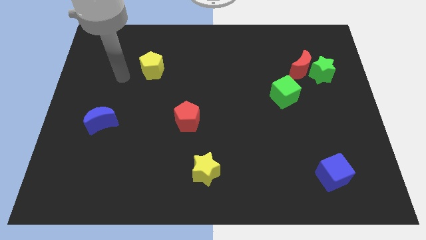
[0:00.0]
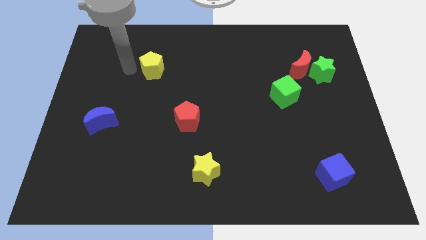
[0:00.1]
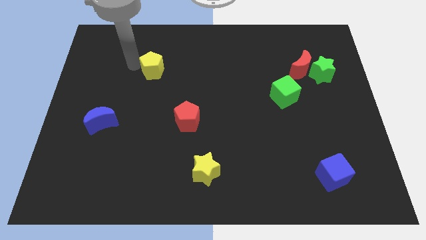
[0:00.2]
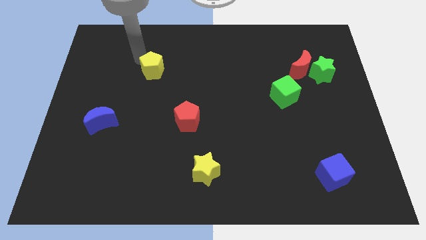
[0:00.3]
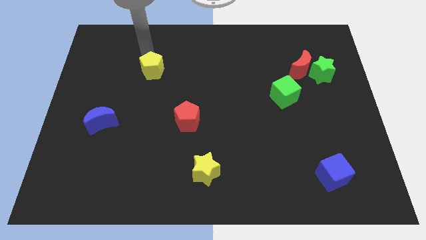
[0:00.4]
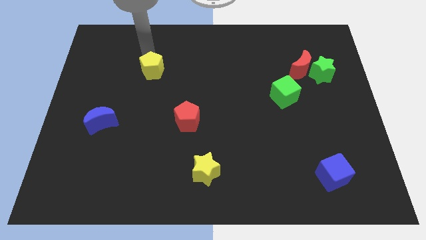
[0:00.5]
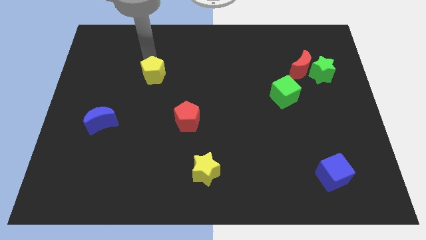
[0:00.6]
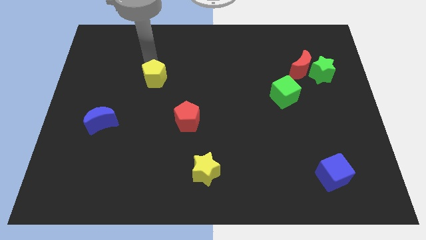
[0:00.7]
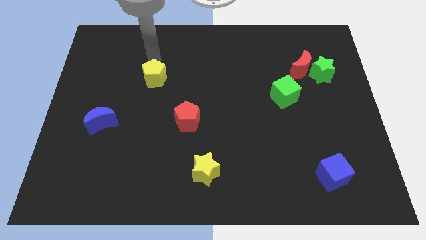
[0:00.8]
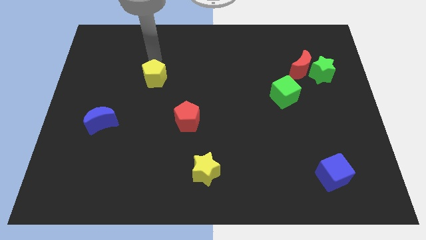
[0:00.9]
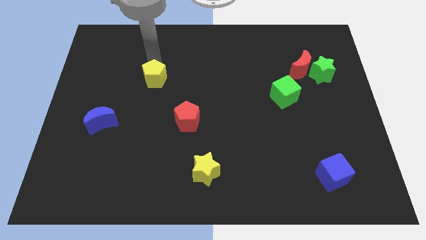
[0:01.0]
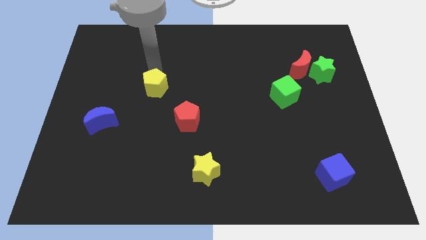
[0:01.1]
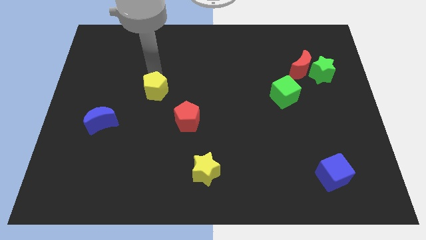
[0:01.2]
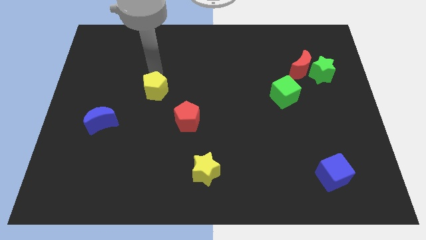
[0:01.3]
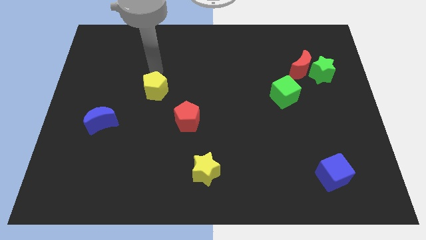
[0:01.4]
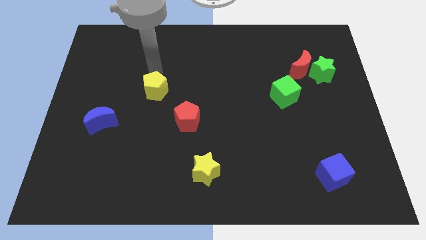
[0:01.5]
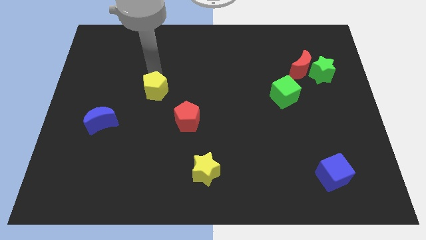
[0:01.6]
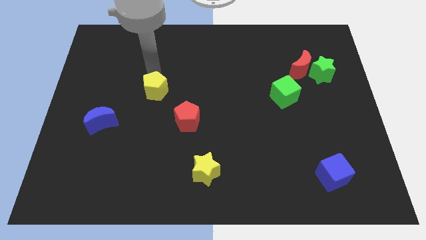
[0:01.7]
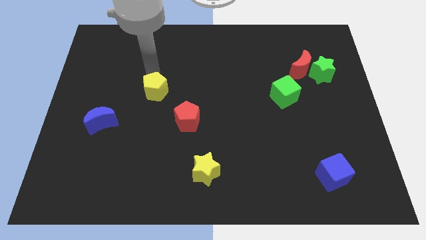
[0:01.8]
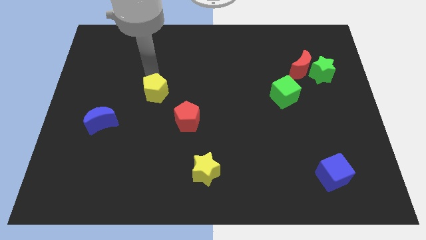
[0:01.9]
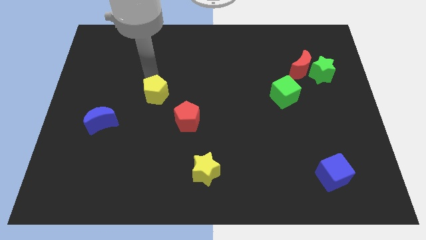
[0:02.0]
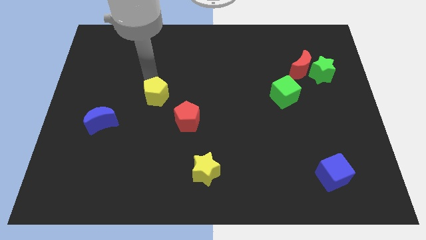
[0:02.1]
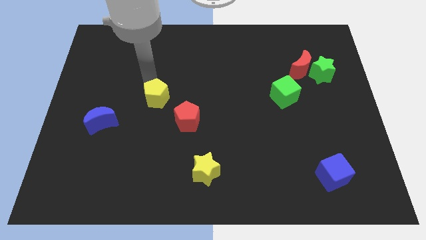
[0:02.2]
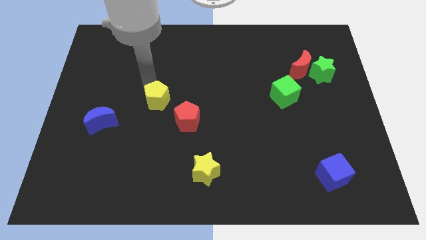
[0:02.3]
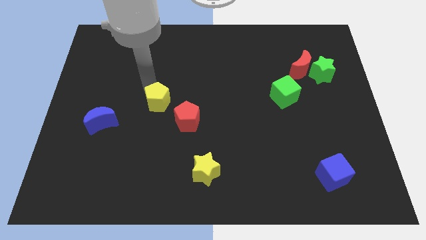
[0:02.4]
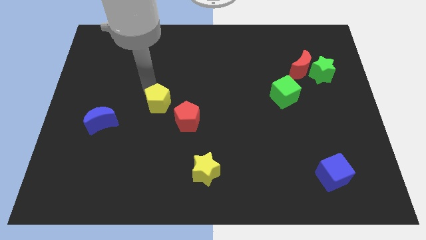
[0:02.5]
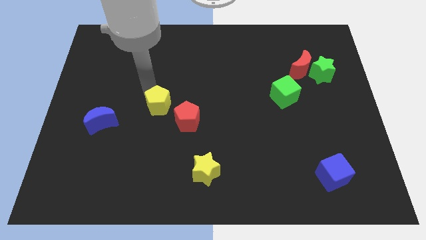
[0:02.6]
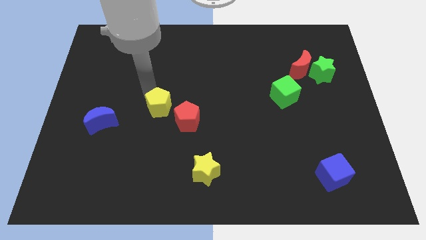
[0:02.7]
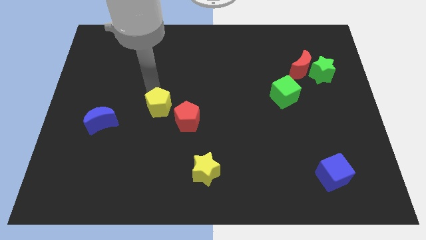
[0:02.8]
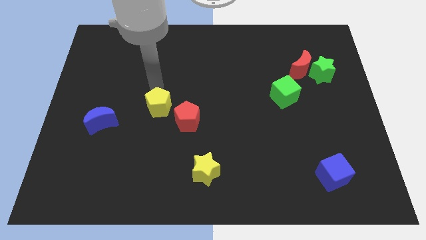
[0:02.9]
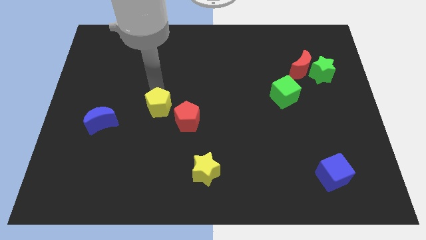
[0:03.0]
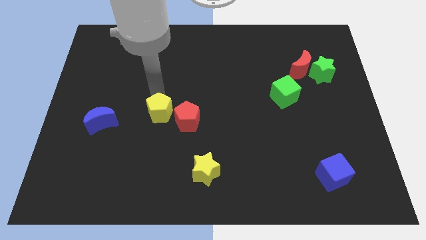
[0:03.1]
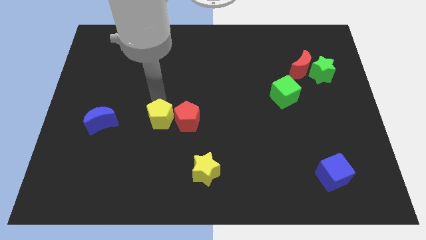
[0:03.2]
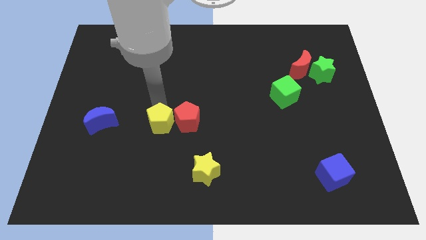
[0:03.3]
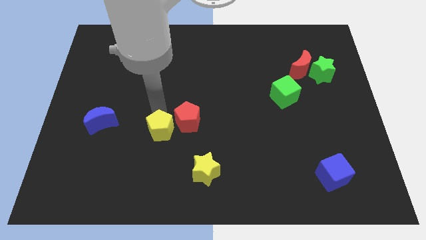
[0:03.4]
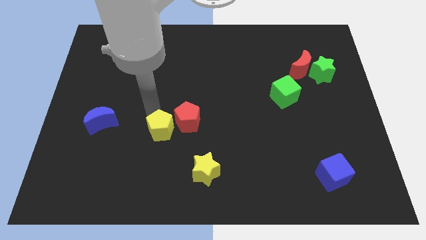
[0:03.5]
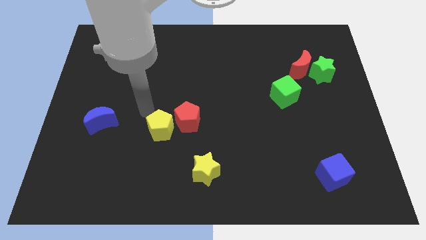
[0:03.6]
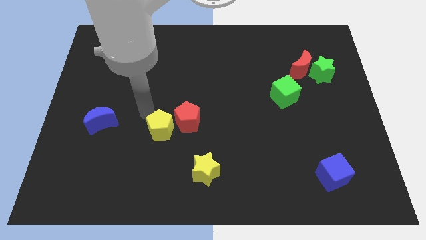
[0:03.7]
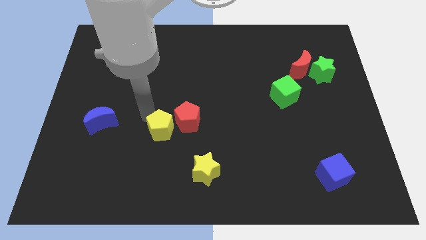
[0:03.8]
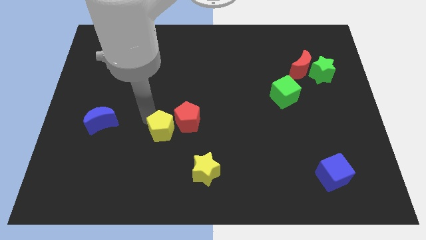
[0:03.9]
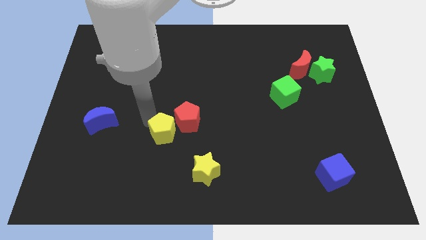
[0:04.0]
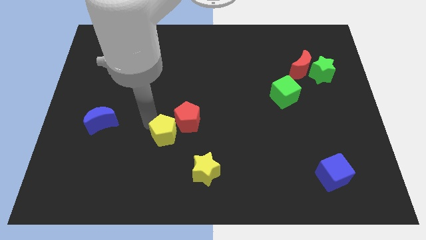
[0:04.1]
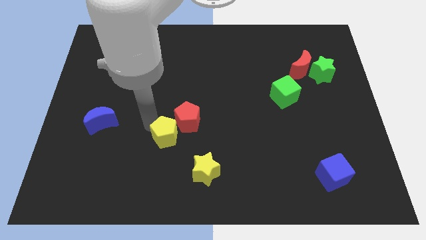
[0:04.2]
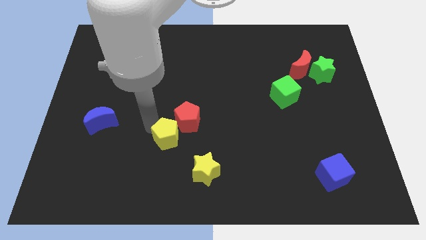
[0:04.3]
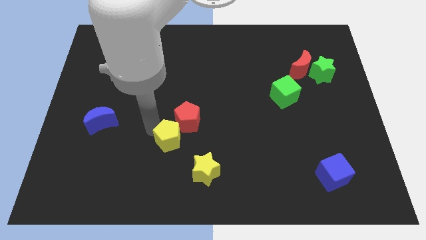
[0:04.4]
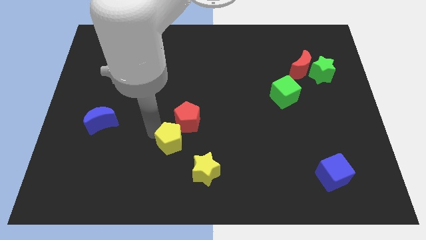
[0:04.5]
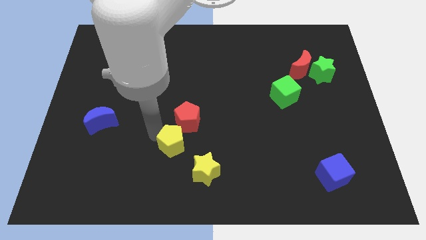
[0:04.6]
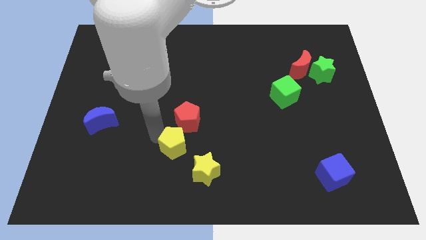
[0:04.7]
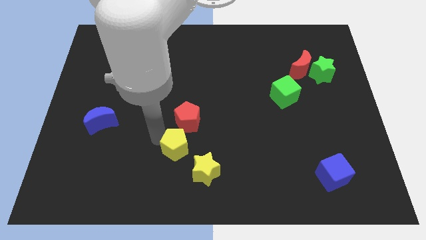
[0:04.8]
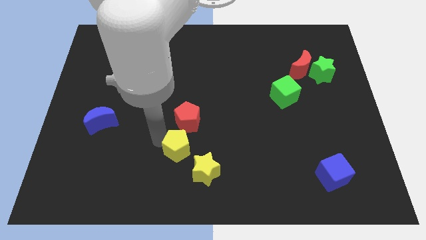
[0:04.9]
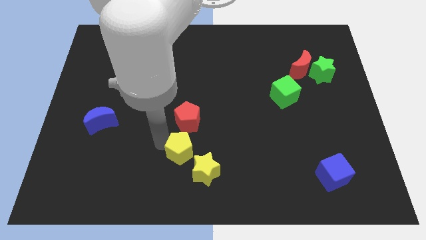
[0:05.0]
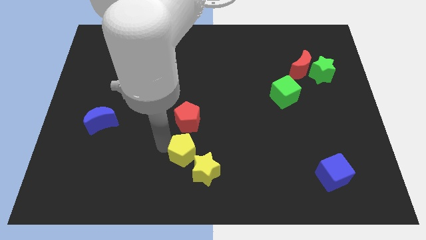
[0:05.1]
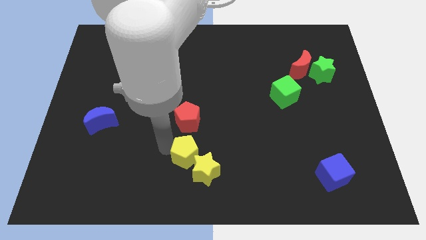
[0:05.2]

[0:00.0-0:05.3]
move the yellow pentagon next to the yellow star

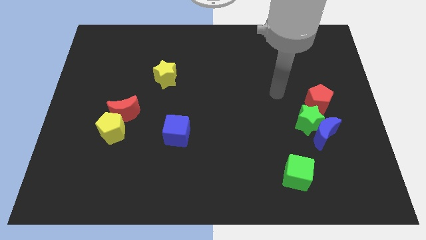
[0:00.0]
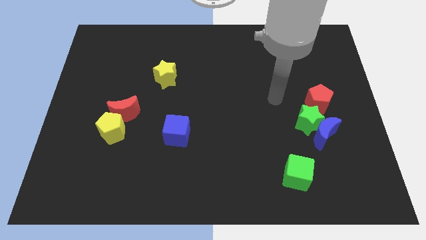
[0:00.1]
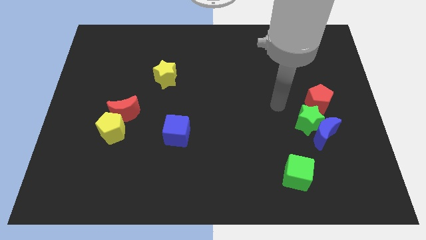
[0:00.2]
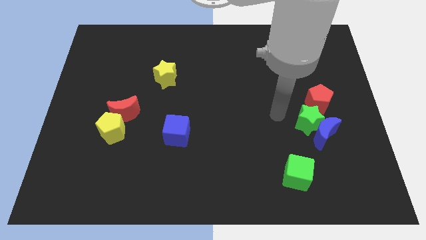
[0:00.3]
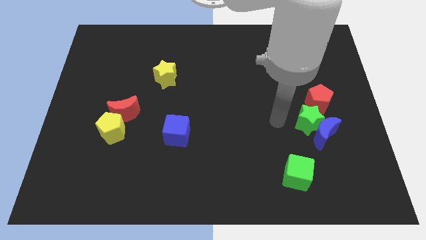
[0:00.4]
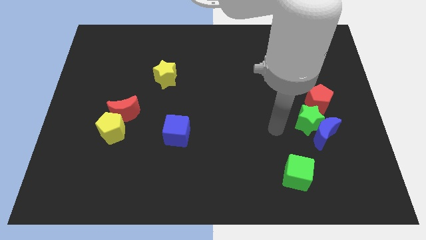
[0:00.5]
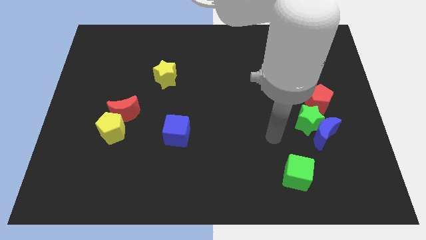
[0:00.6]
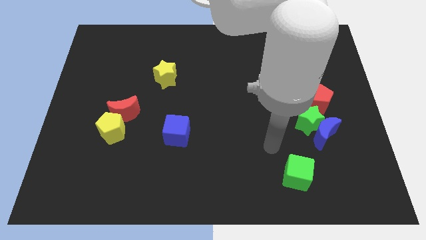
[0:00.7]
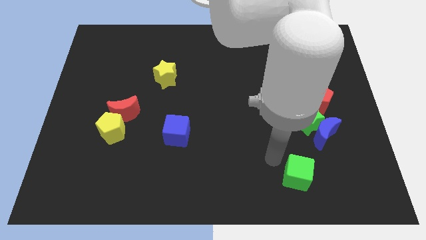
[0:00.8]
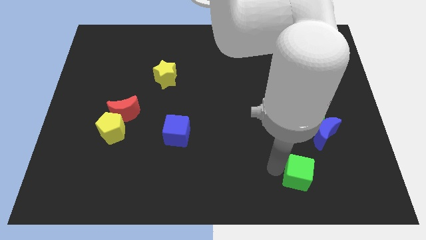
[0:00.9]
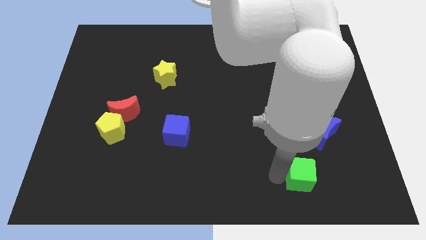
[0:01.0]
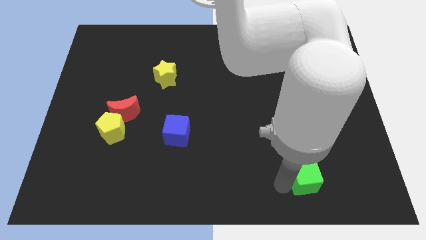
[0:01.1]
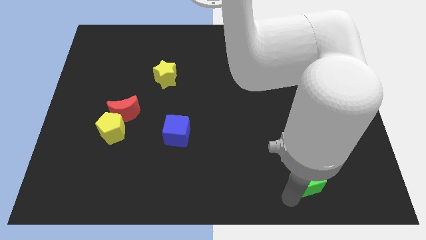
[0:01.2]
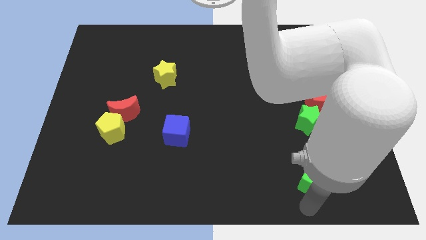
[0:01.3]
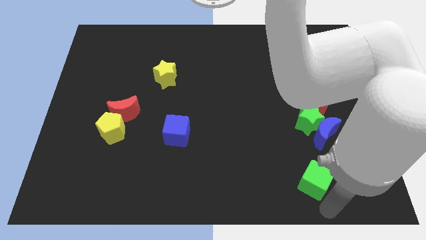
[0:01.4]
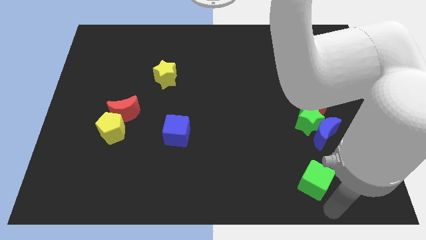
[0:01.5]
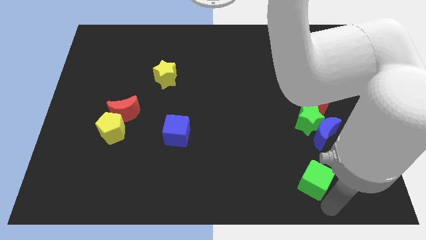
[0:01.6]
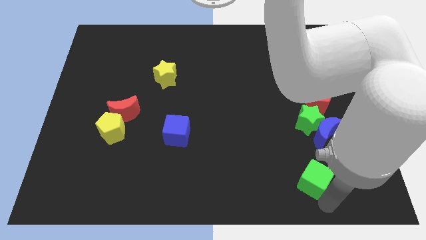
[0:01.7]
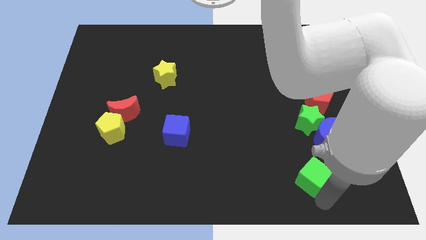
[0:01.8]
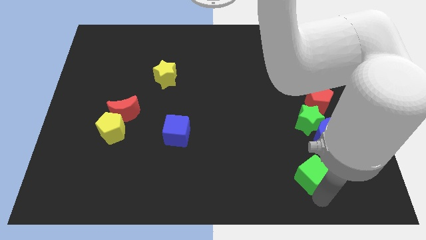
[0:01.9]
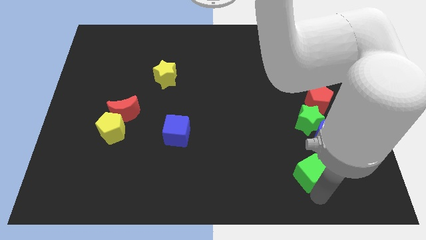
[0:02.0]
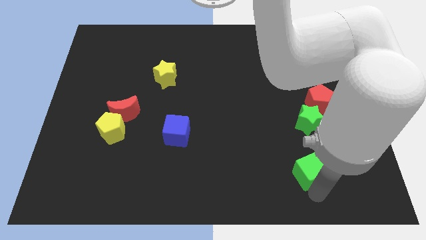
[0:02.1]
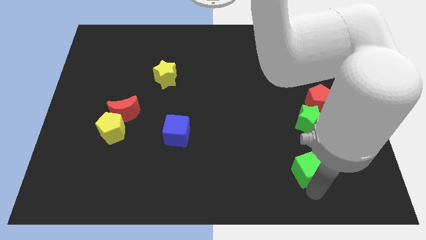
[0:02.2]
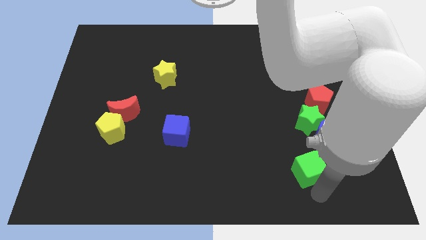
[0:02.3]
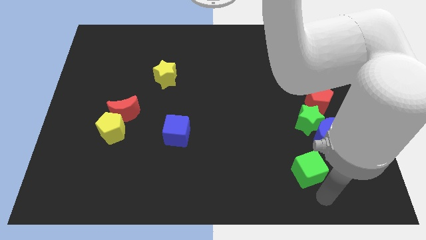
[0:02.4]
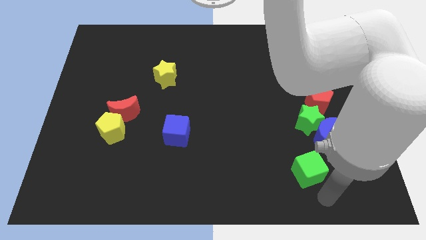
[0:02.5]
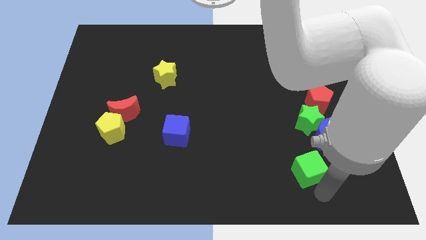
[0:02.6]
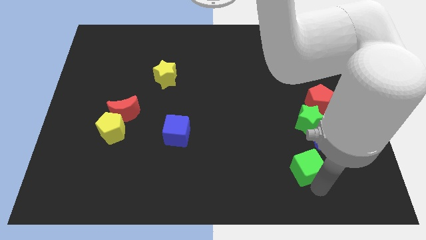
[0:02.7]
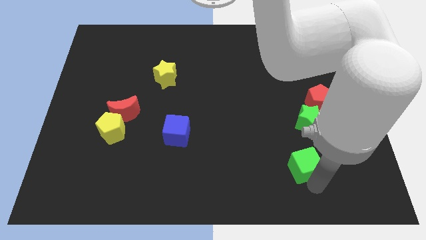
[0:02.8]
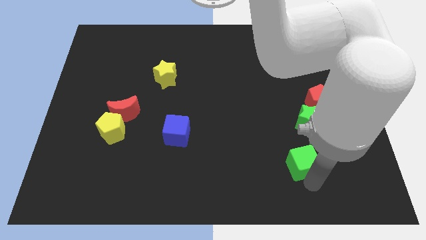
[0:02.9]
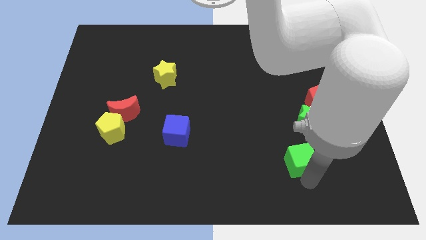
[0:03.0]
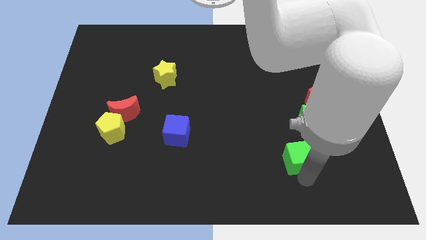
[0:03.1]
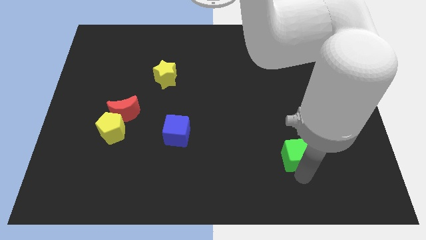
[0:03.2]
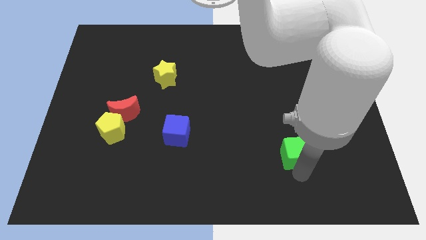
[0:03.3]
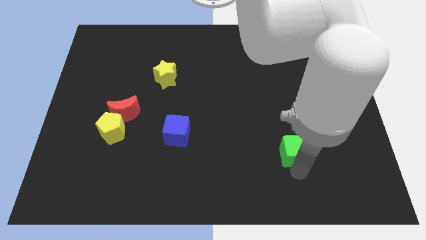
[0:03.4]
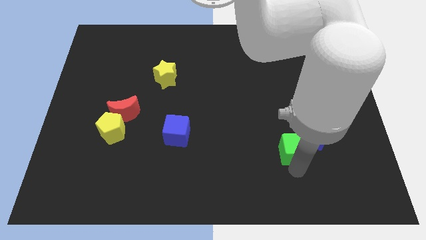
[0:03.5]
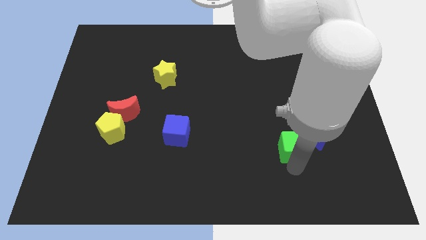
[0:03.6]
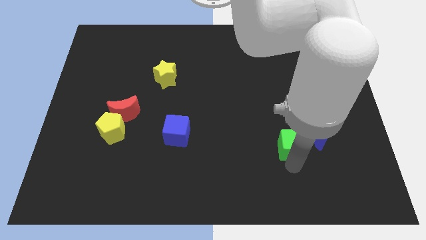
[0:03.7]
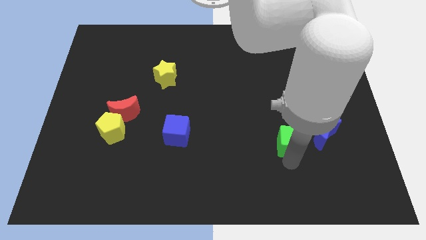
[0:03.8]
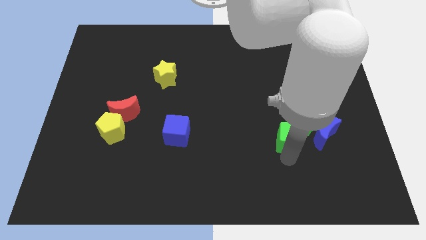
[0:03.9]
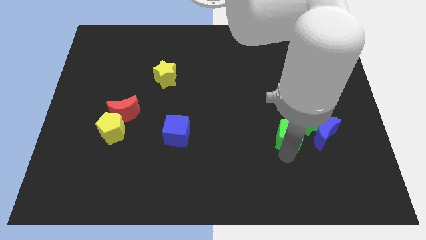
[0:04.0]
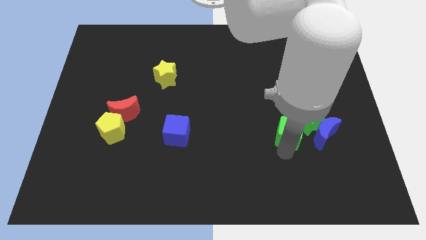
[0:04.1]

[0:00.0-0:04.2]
slide the green cube to the green star
